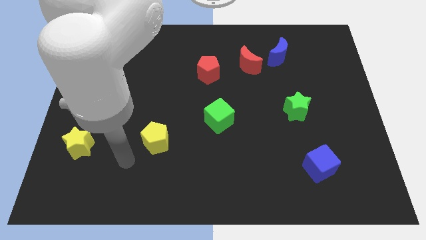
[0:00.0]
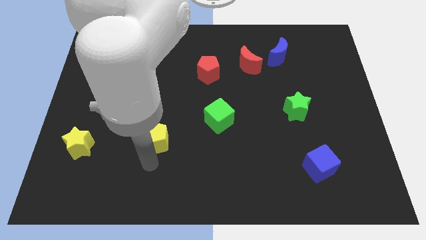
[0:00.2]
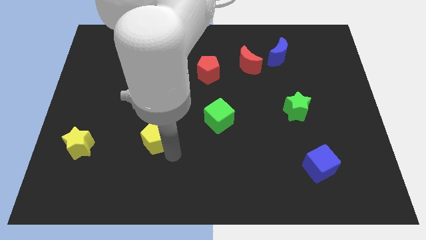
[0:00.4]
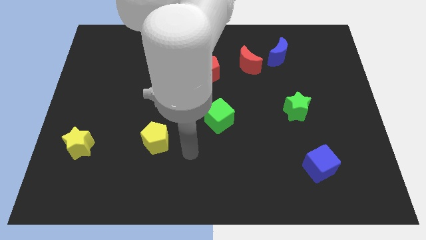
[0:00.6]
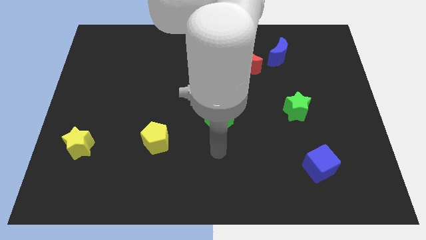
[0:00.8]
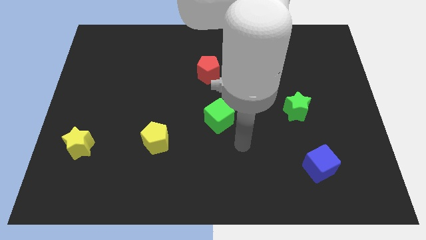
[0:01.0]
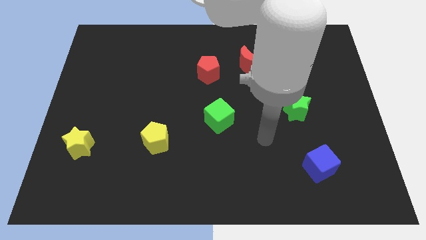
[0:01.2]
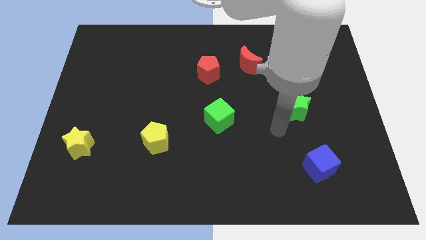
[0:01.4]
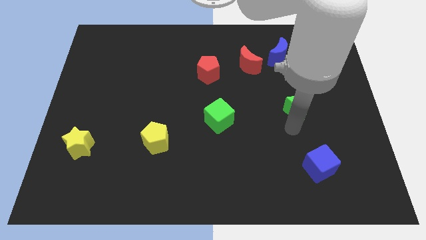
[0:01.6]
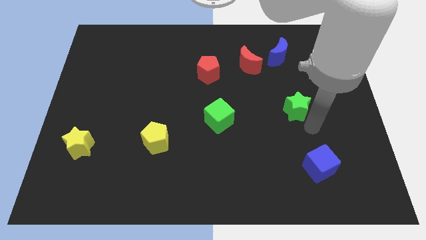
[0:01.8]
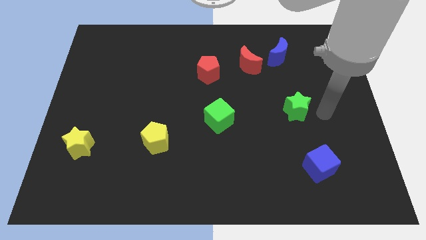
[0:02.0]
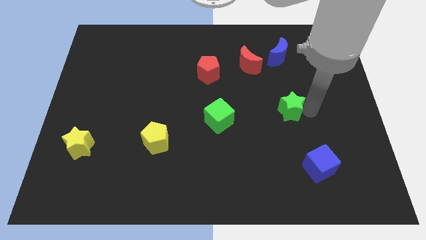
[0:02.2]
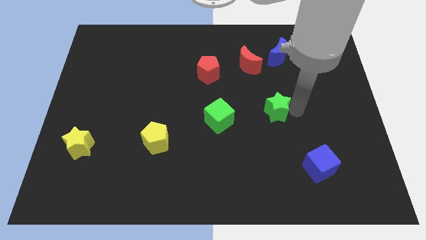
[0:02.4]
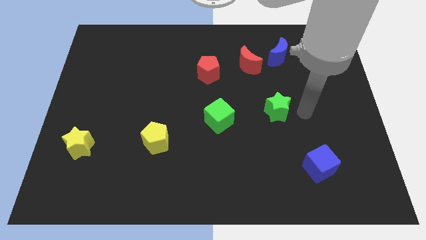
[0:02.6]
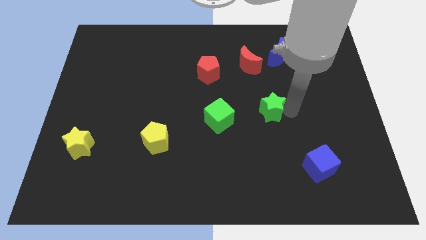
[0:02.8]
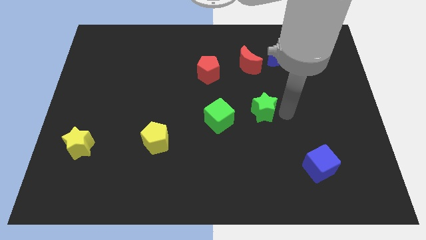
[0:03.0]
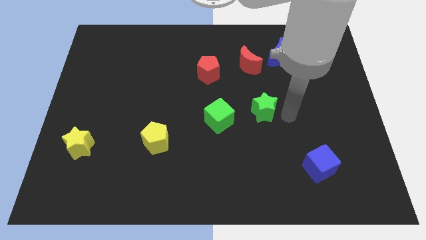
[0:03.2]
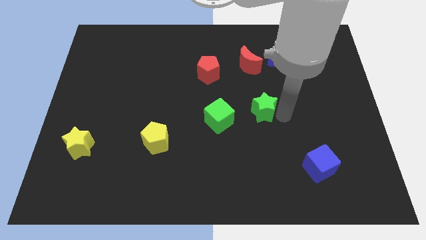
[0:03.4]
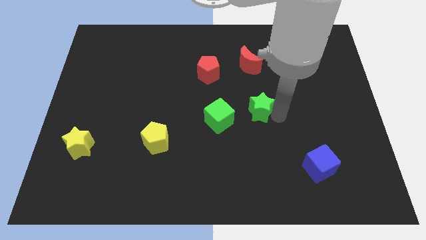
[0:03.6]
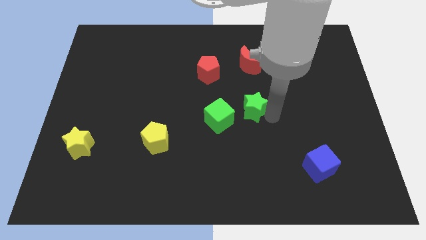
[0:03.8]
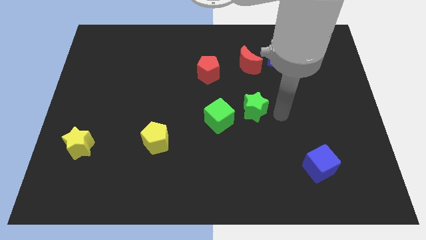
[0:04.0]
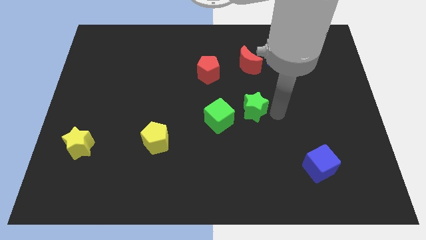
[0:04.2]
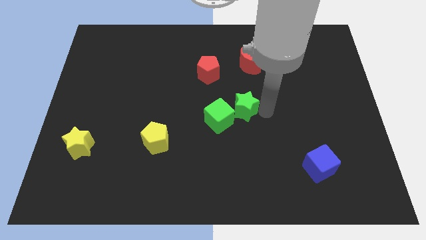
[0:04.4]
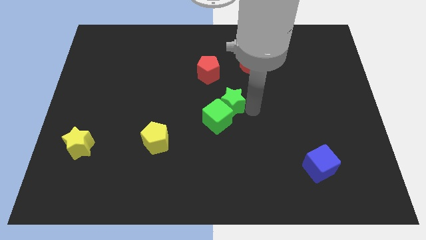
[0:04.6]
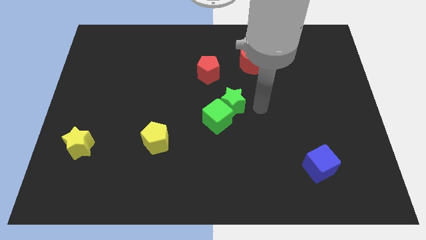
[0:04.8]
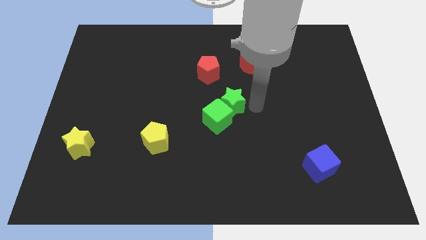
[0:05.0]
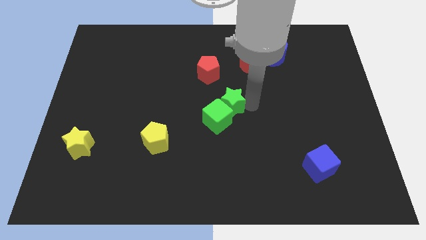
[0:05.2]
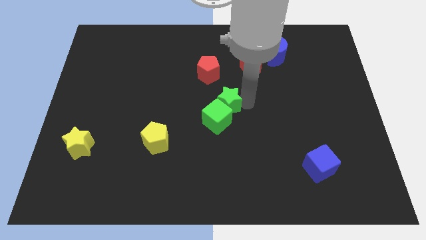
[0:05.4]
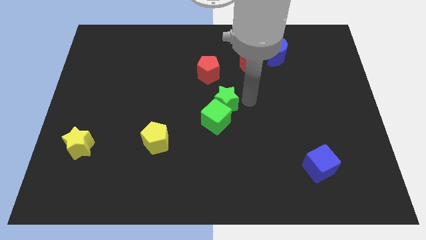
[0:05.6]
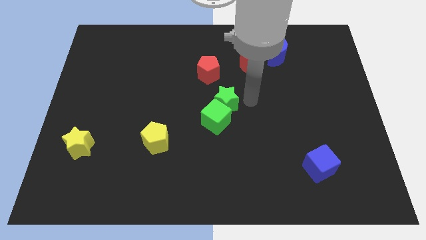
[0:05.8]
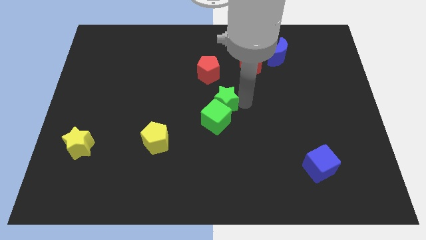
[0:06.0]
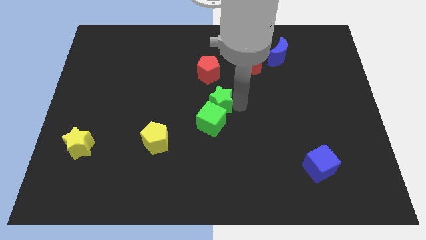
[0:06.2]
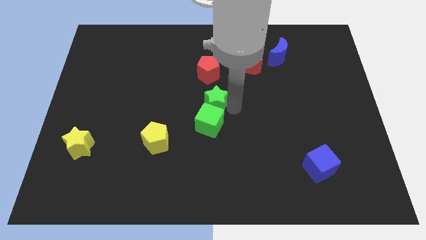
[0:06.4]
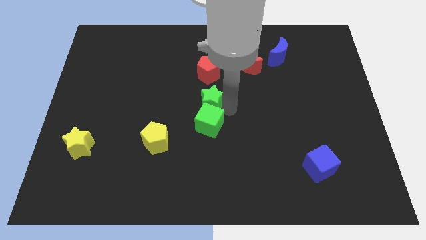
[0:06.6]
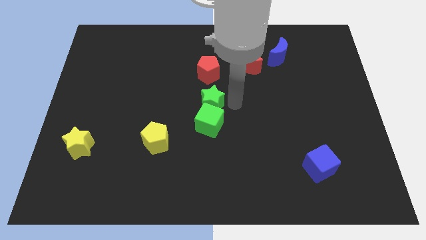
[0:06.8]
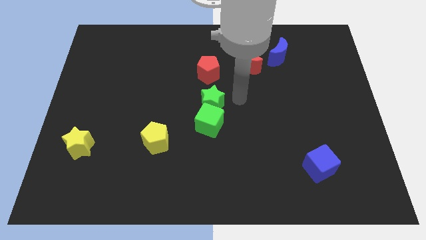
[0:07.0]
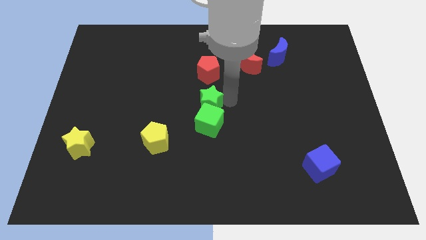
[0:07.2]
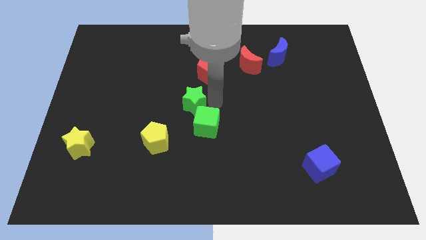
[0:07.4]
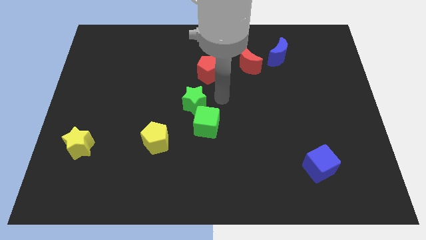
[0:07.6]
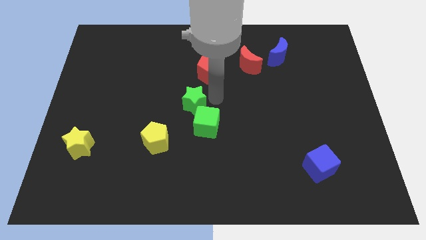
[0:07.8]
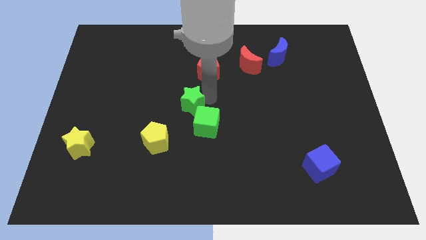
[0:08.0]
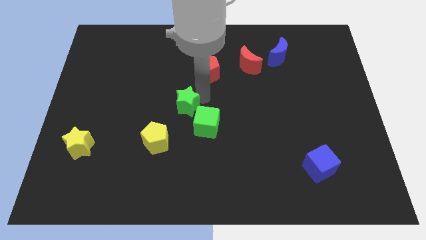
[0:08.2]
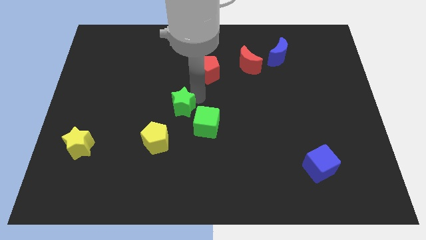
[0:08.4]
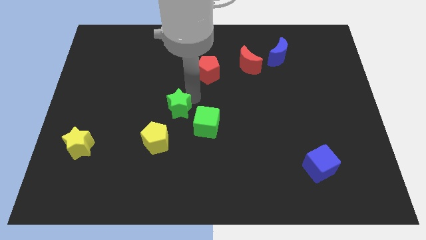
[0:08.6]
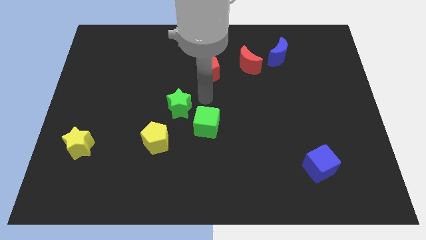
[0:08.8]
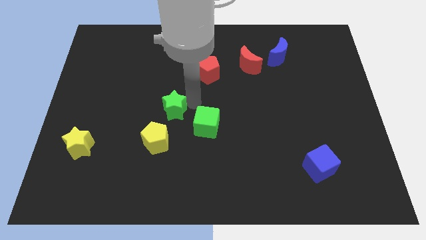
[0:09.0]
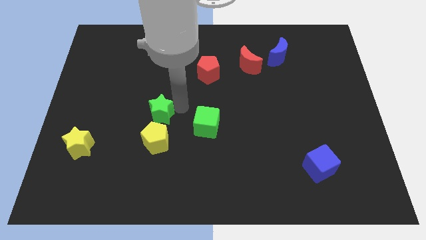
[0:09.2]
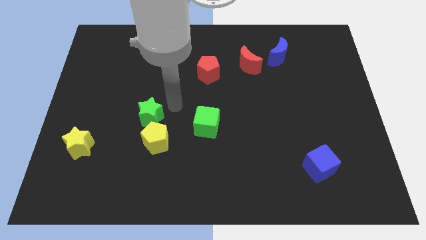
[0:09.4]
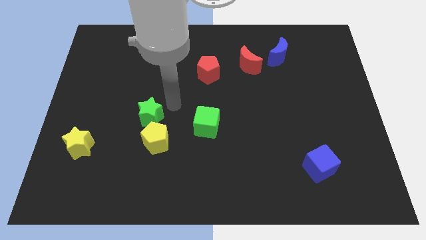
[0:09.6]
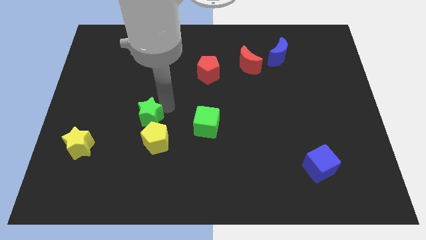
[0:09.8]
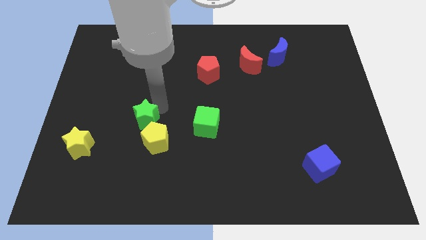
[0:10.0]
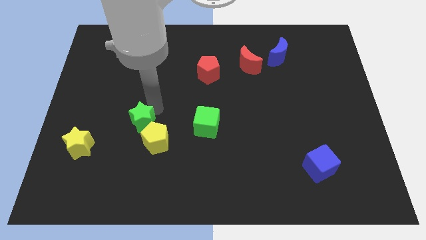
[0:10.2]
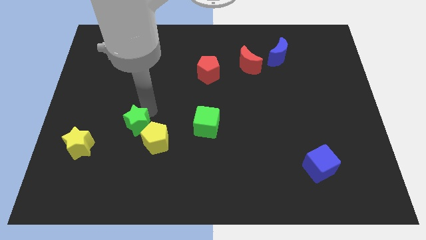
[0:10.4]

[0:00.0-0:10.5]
move the green star just left of the yellow pentagon

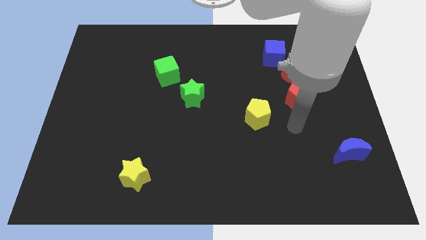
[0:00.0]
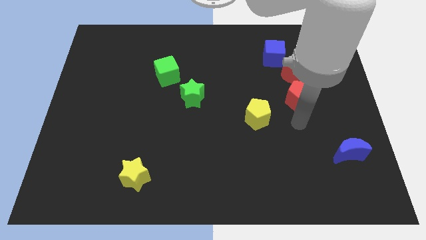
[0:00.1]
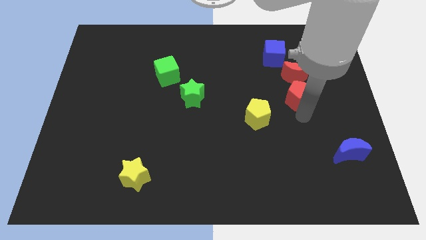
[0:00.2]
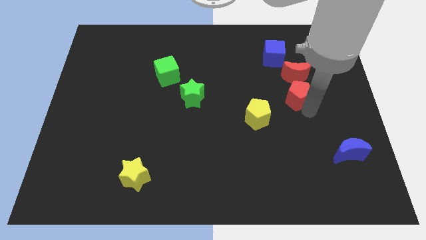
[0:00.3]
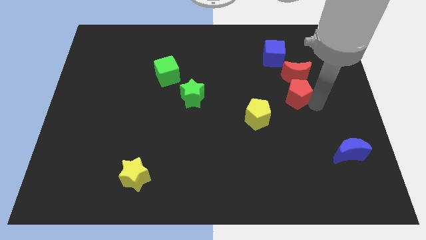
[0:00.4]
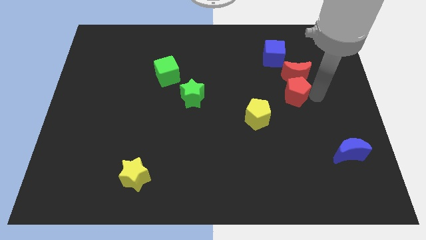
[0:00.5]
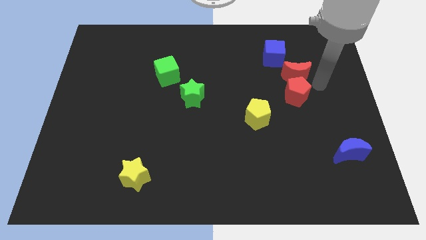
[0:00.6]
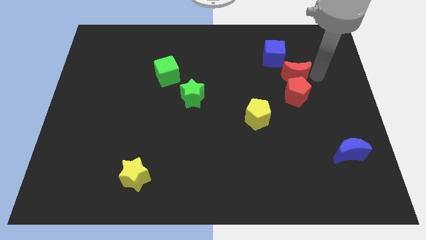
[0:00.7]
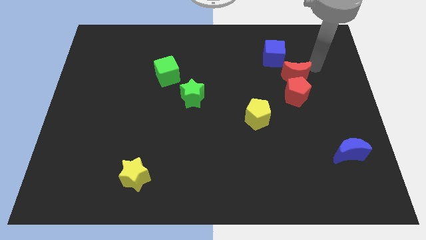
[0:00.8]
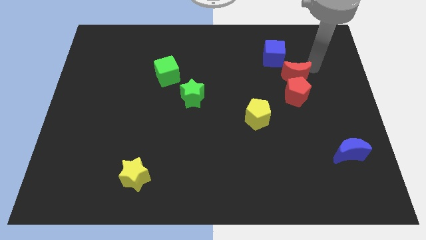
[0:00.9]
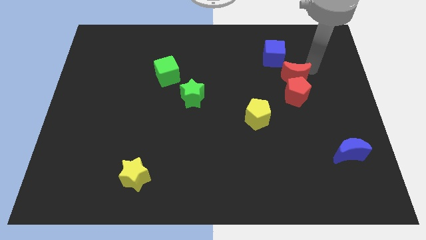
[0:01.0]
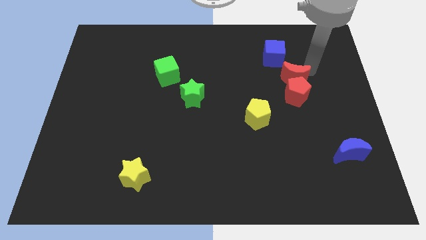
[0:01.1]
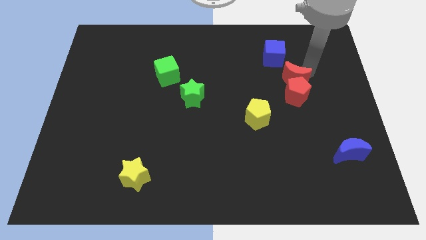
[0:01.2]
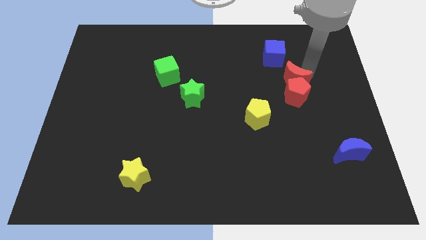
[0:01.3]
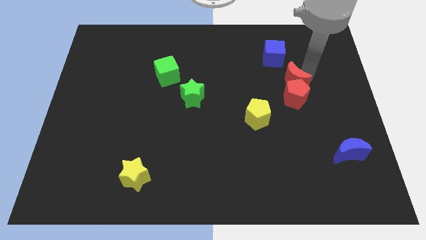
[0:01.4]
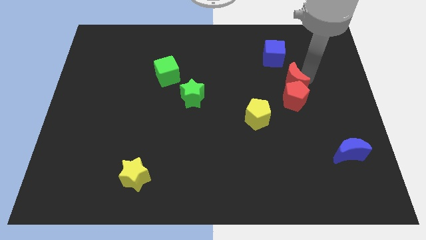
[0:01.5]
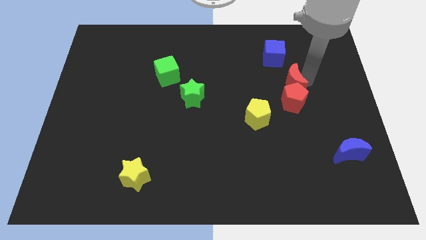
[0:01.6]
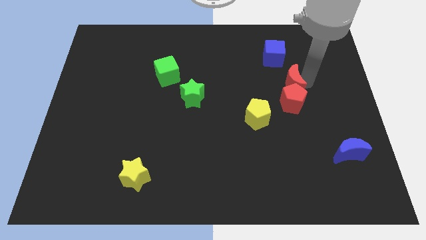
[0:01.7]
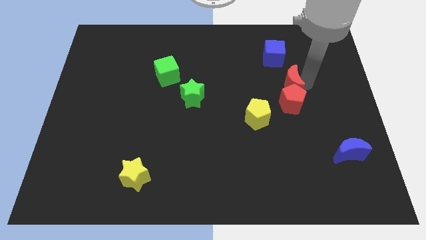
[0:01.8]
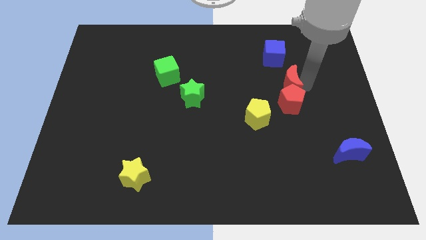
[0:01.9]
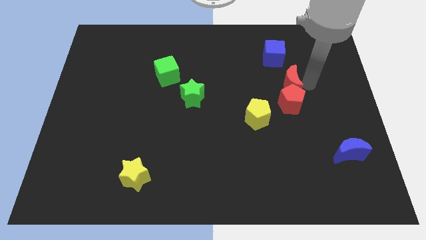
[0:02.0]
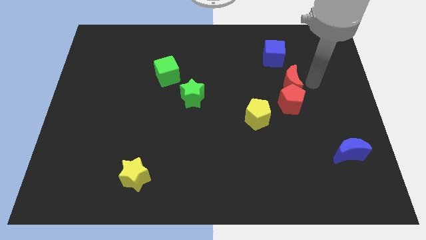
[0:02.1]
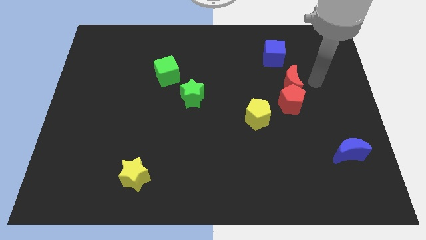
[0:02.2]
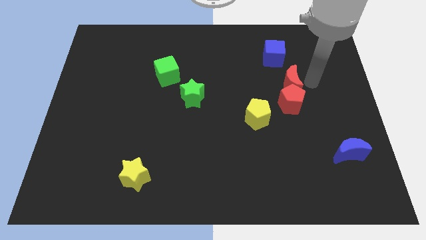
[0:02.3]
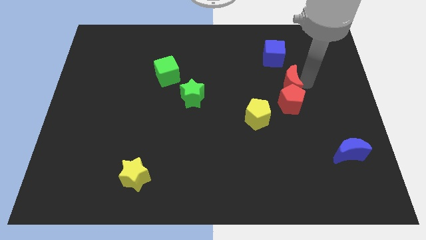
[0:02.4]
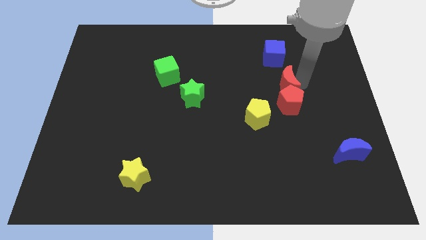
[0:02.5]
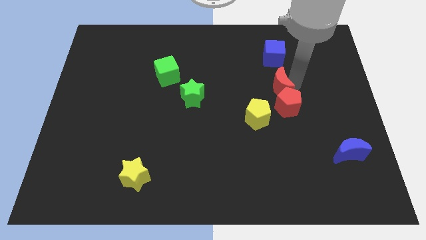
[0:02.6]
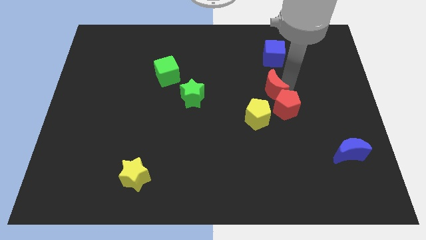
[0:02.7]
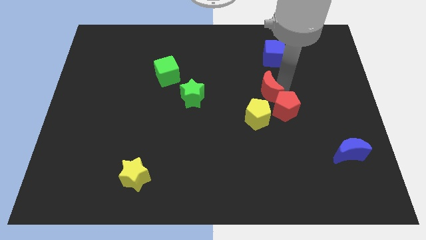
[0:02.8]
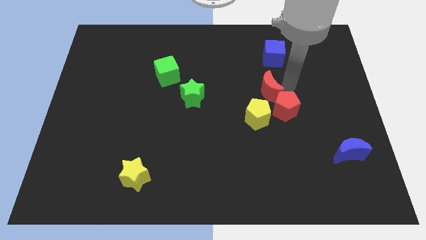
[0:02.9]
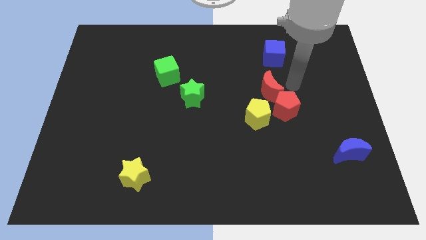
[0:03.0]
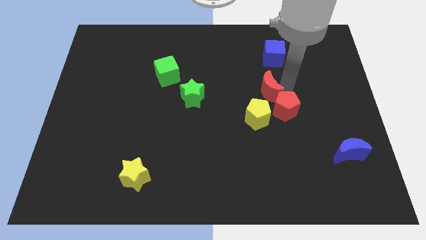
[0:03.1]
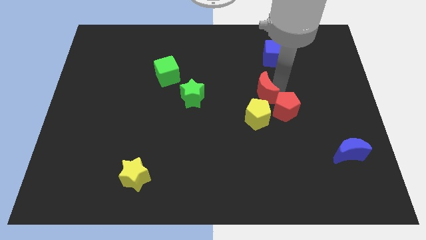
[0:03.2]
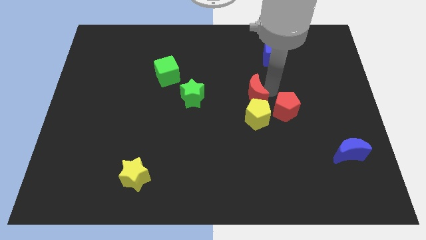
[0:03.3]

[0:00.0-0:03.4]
move the red moon to the top left of the yellow pentagon
